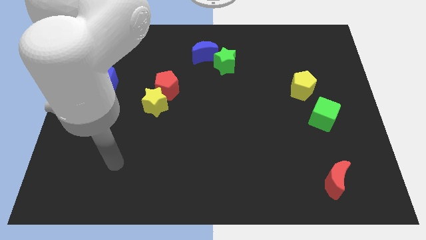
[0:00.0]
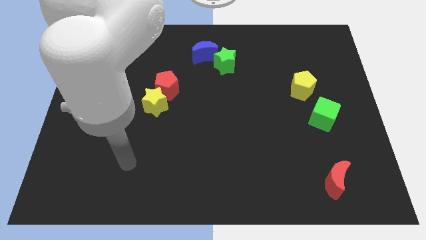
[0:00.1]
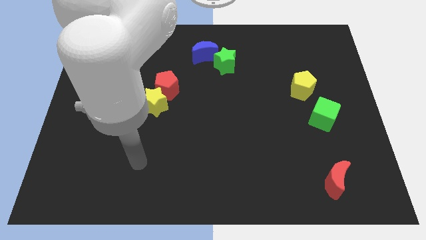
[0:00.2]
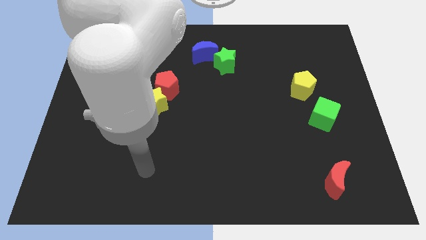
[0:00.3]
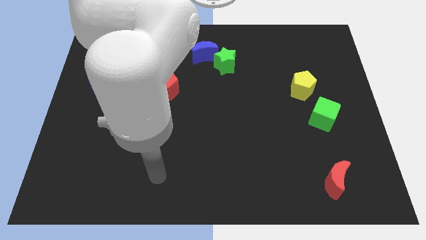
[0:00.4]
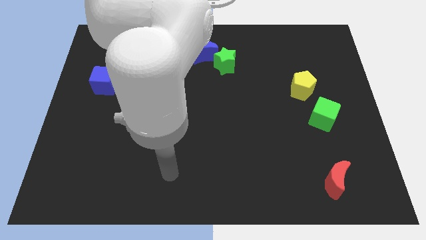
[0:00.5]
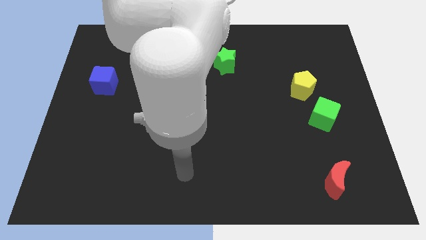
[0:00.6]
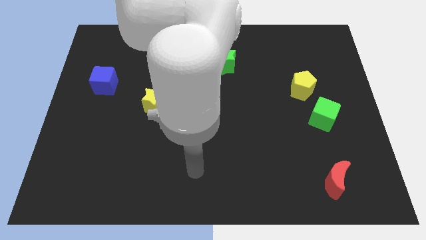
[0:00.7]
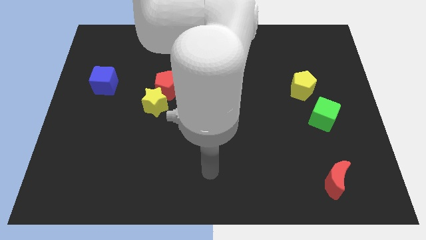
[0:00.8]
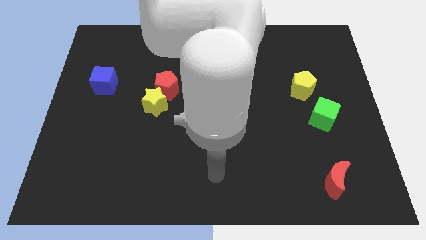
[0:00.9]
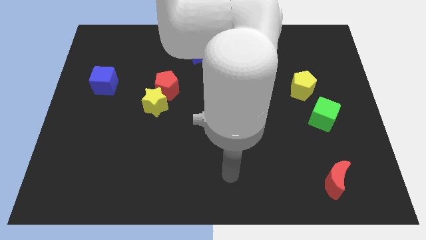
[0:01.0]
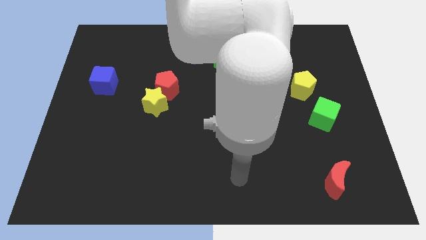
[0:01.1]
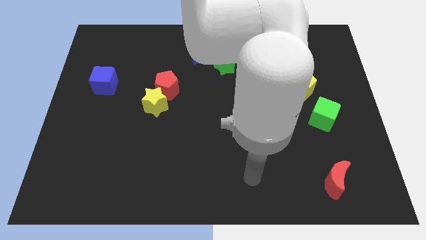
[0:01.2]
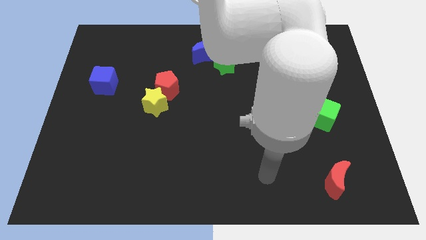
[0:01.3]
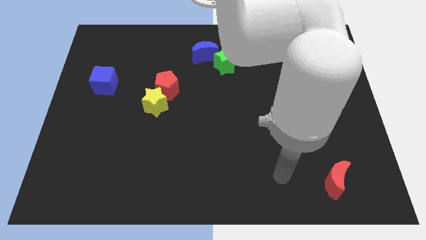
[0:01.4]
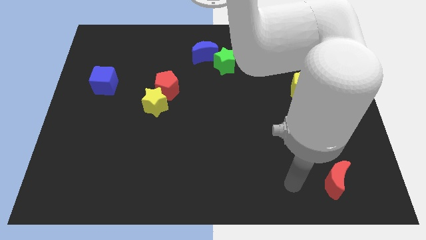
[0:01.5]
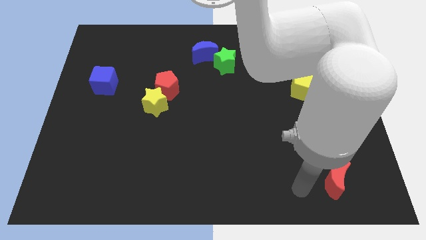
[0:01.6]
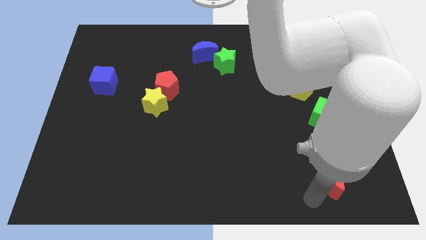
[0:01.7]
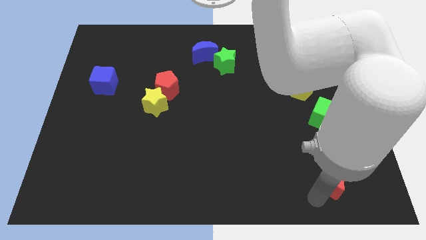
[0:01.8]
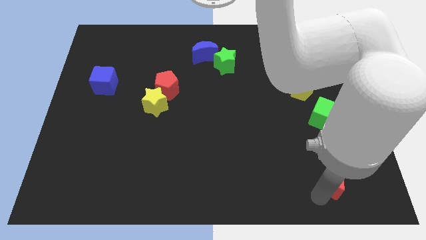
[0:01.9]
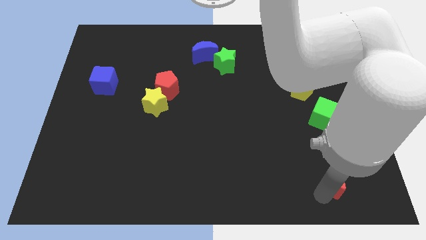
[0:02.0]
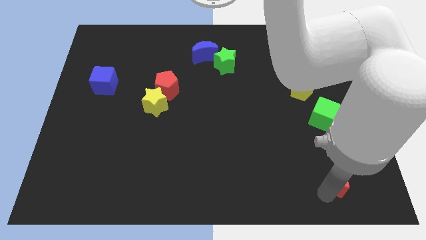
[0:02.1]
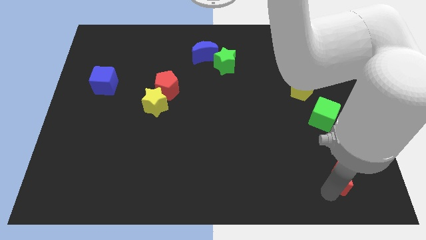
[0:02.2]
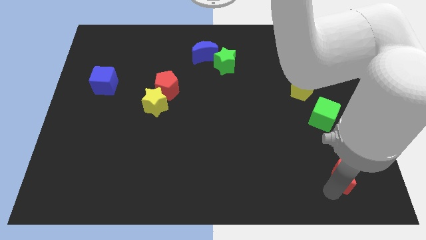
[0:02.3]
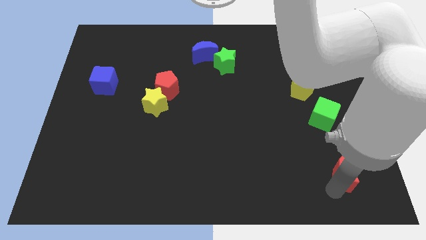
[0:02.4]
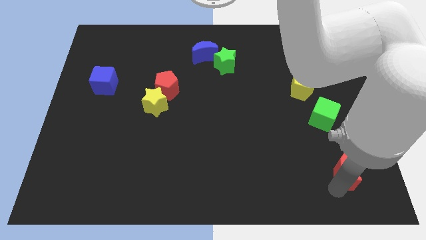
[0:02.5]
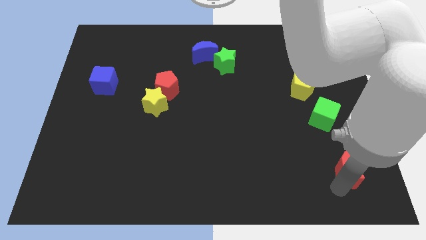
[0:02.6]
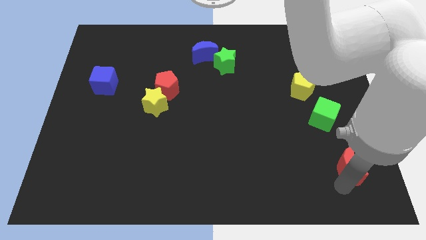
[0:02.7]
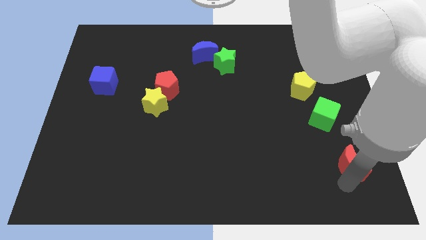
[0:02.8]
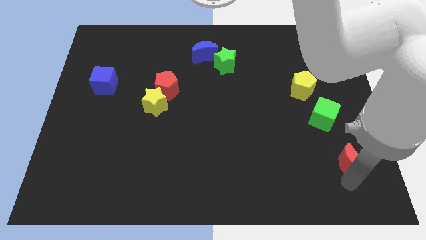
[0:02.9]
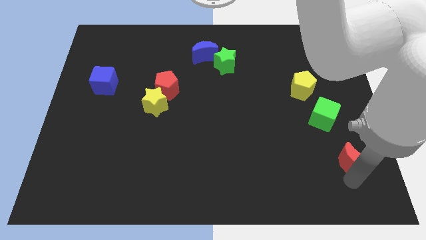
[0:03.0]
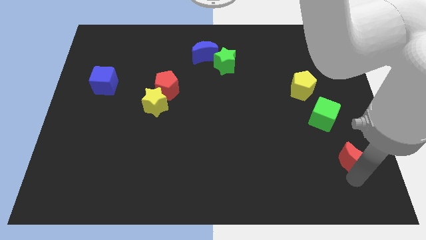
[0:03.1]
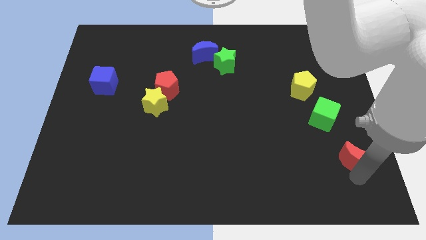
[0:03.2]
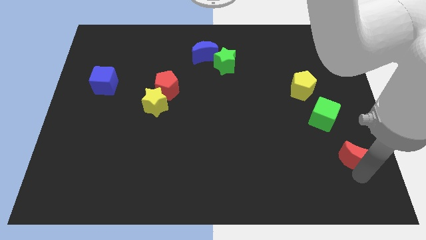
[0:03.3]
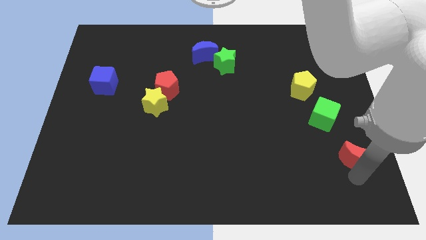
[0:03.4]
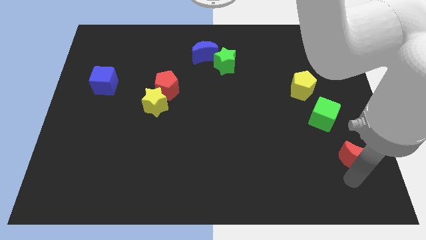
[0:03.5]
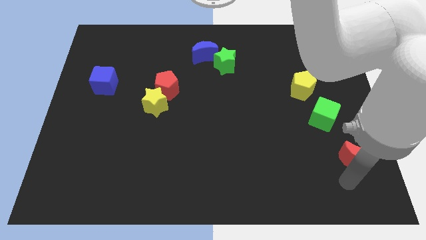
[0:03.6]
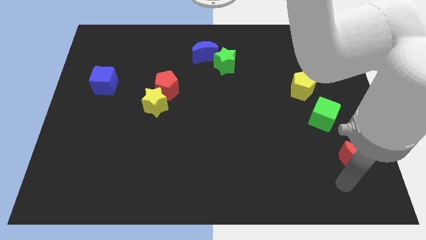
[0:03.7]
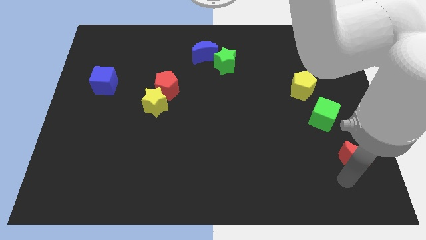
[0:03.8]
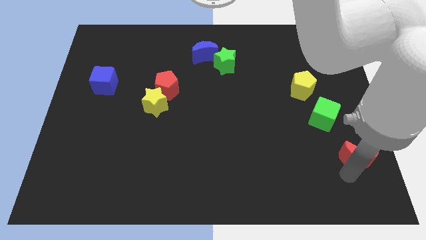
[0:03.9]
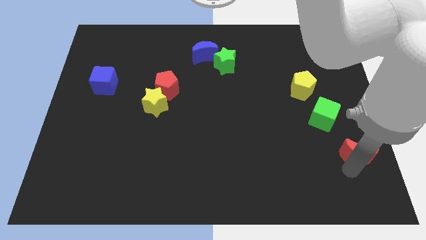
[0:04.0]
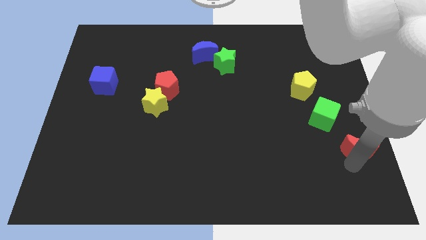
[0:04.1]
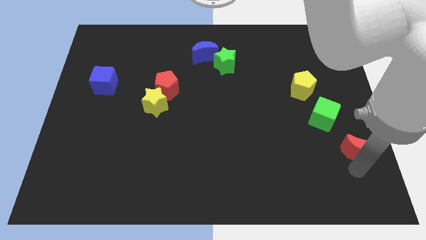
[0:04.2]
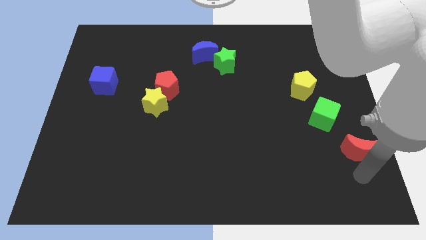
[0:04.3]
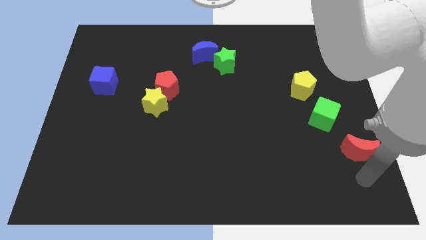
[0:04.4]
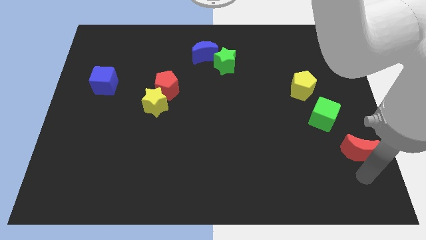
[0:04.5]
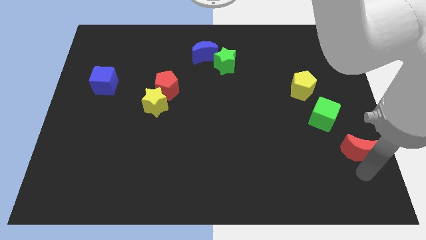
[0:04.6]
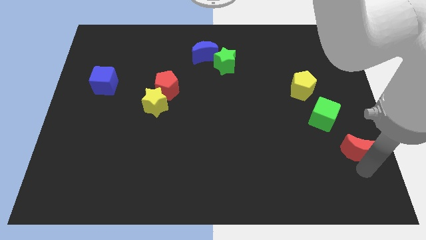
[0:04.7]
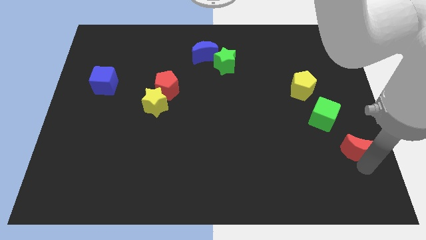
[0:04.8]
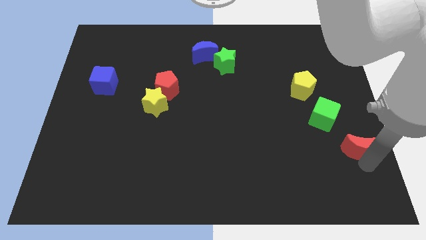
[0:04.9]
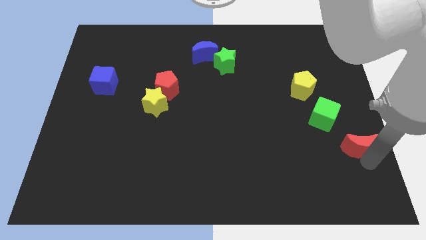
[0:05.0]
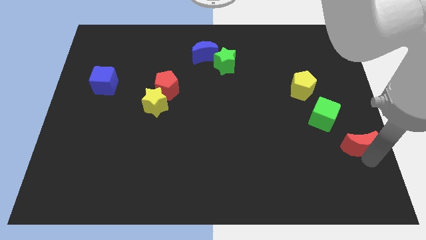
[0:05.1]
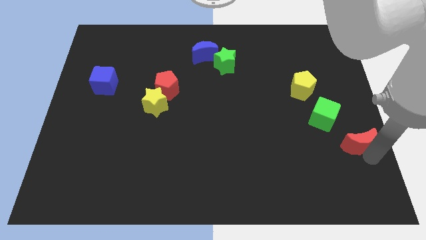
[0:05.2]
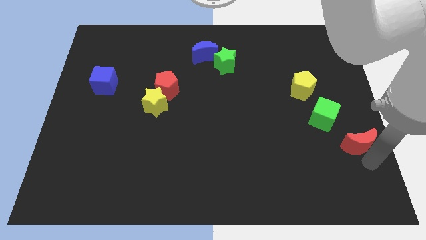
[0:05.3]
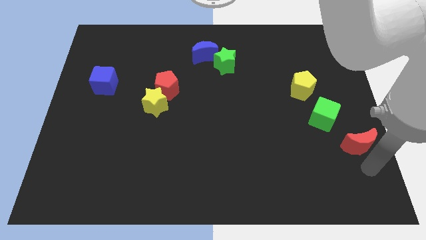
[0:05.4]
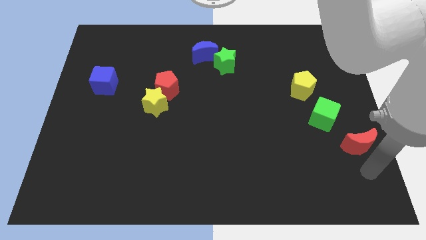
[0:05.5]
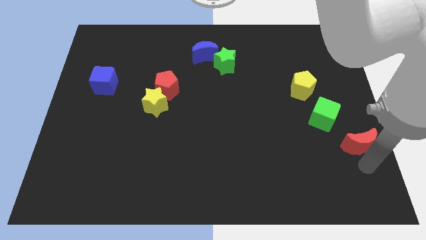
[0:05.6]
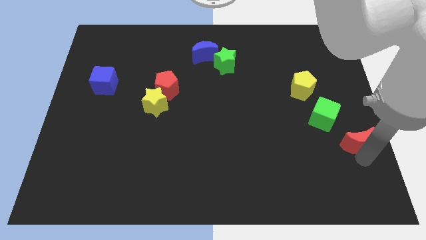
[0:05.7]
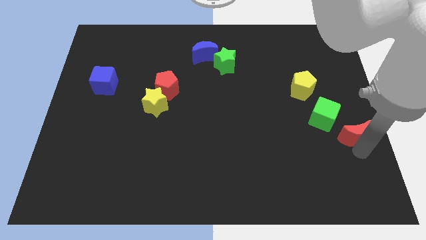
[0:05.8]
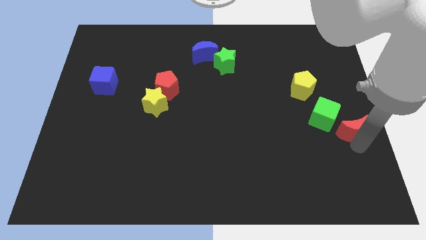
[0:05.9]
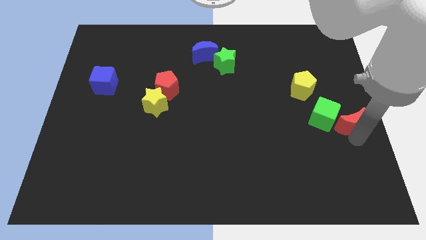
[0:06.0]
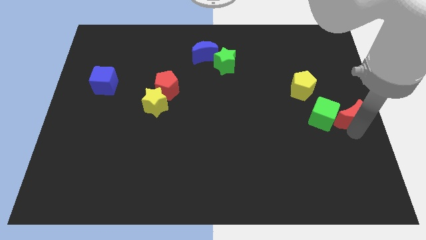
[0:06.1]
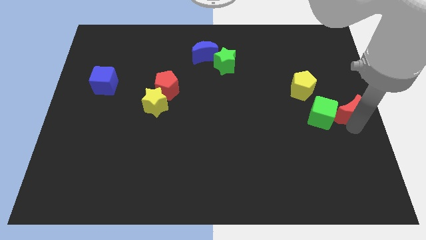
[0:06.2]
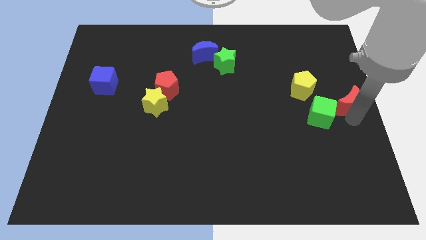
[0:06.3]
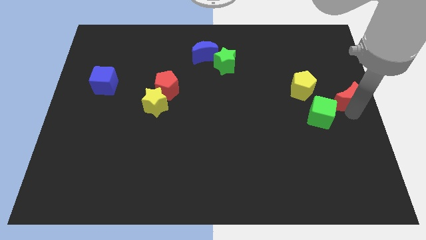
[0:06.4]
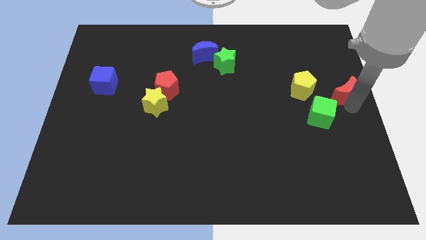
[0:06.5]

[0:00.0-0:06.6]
push the red moon upwards

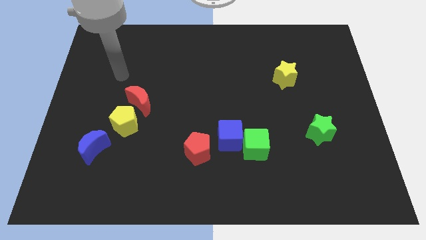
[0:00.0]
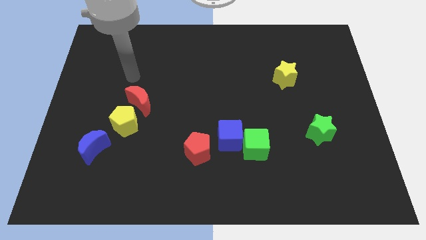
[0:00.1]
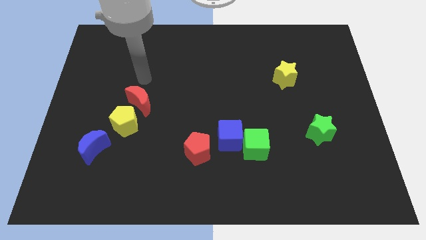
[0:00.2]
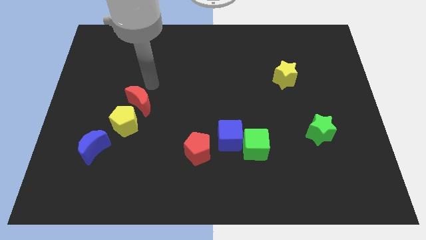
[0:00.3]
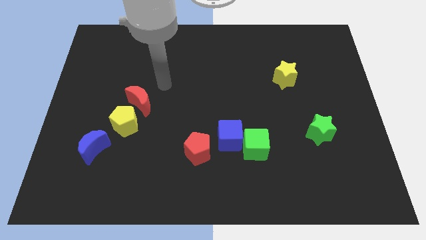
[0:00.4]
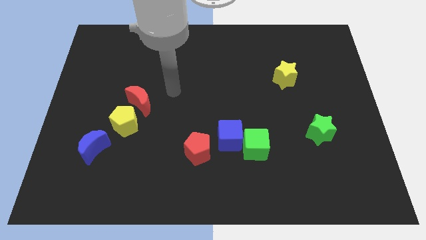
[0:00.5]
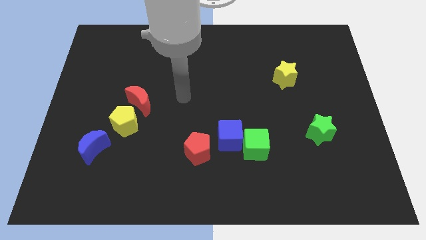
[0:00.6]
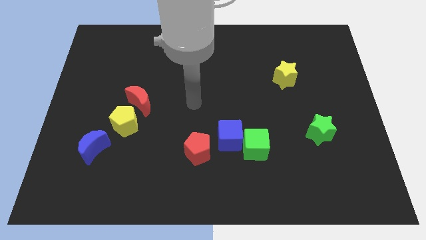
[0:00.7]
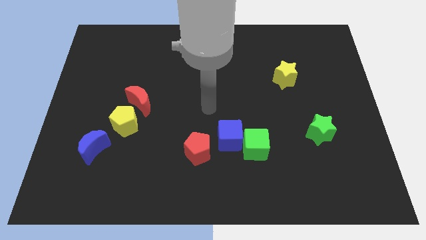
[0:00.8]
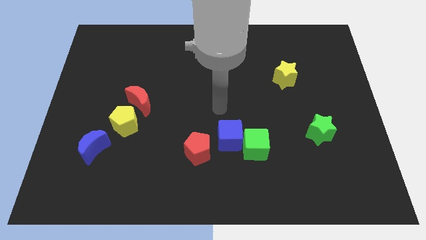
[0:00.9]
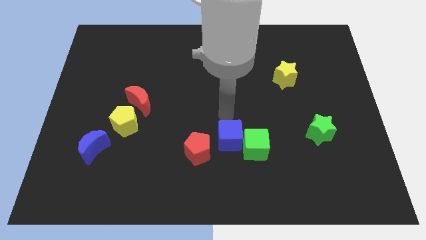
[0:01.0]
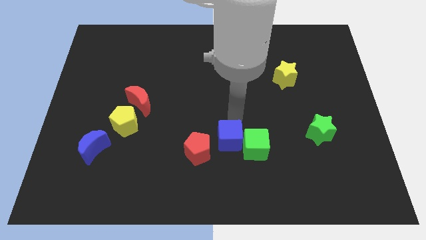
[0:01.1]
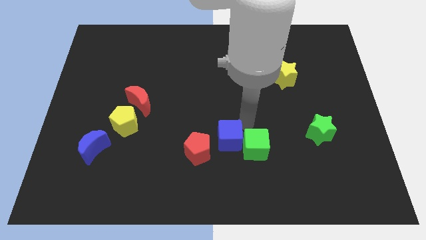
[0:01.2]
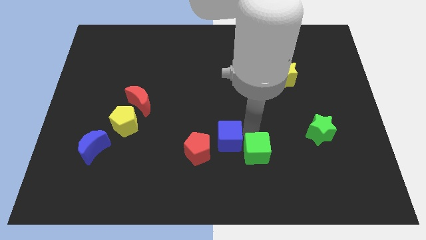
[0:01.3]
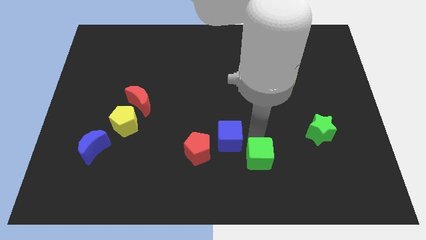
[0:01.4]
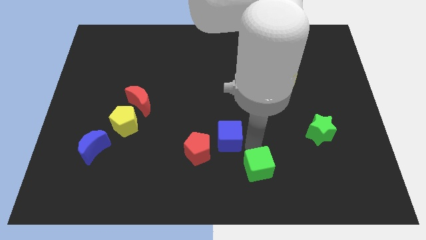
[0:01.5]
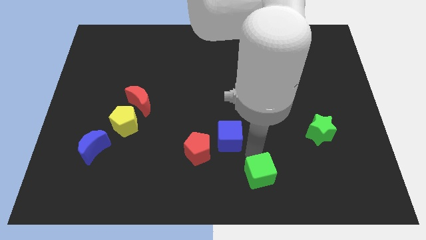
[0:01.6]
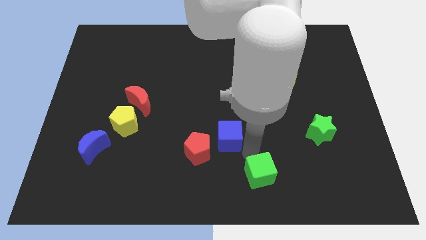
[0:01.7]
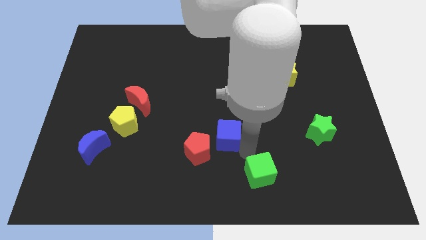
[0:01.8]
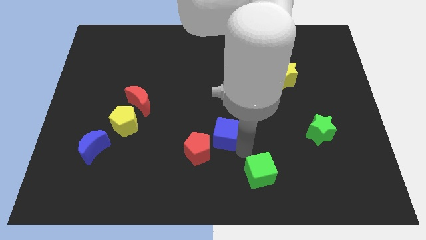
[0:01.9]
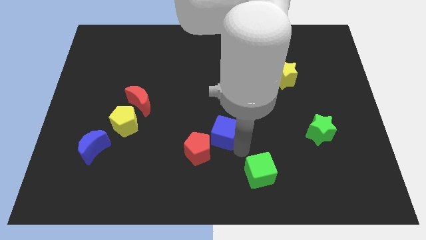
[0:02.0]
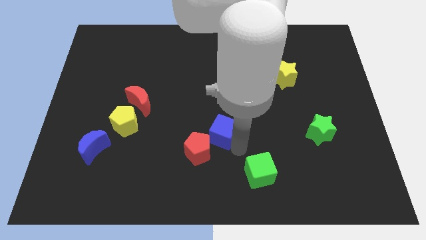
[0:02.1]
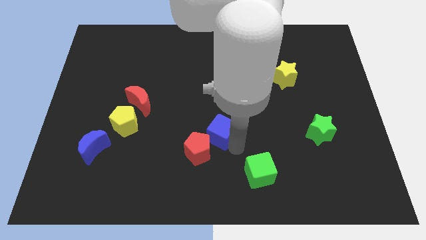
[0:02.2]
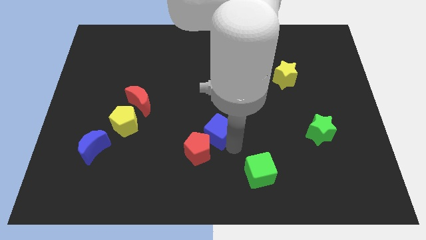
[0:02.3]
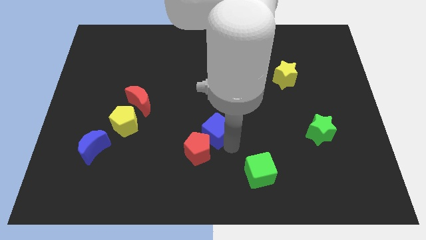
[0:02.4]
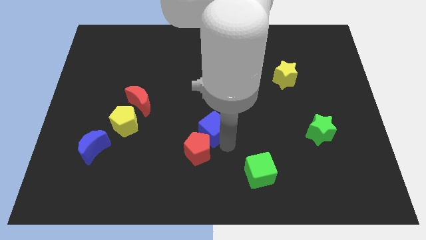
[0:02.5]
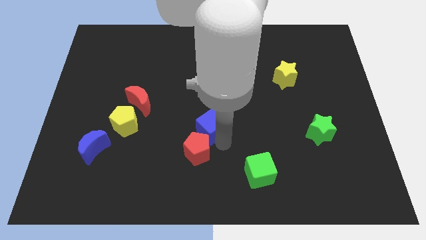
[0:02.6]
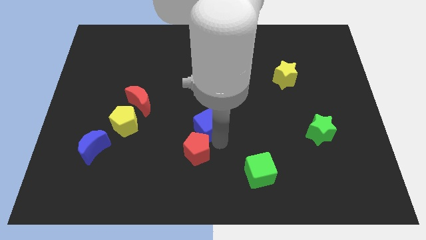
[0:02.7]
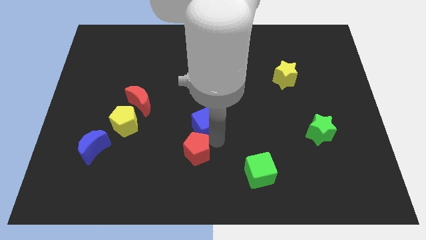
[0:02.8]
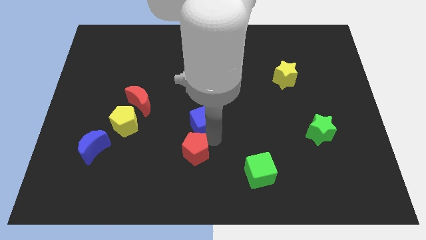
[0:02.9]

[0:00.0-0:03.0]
slide the blue cube upwards and left slightly
